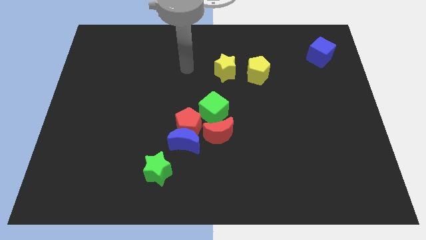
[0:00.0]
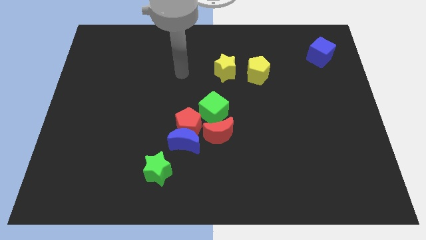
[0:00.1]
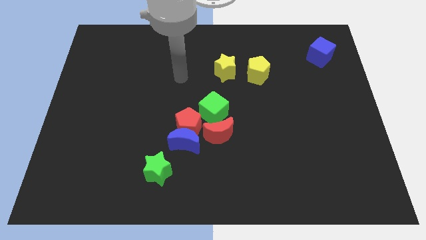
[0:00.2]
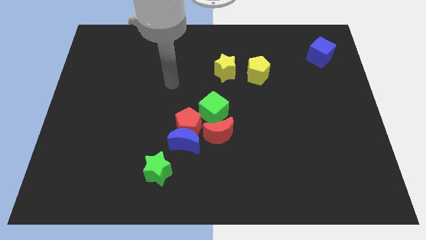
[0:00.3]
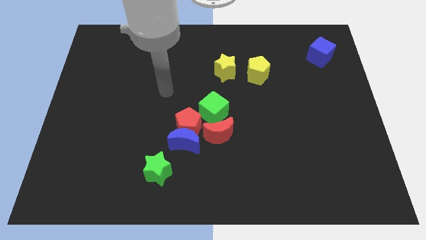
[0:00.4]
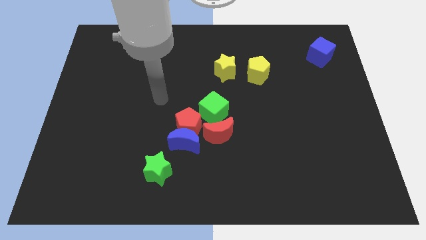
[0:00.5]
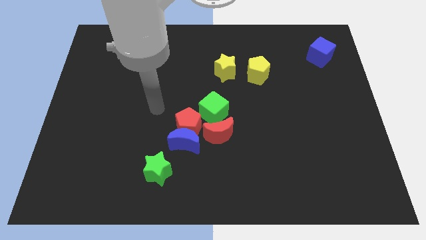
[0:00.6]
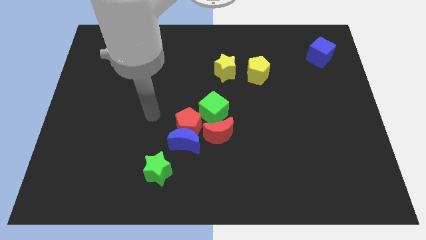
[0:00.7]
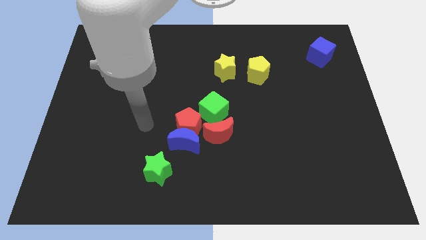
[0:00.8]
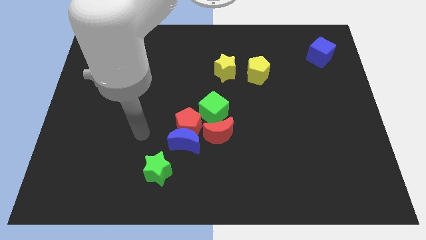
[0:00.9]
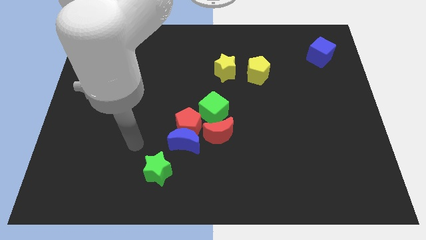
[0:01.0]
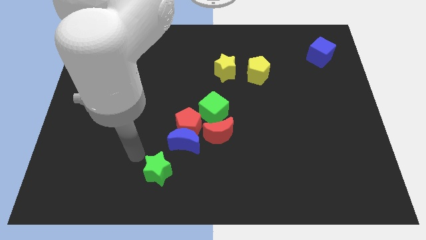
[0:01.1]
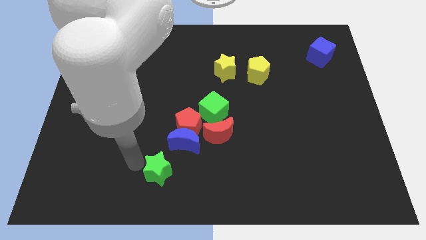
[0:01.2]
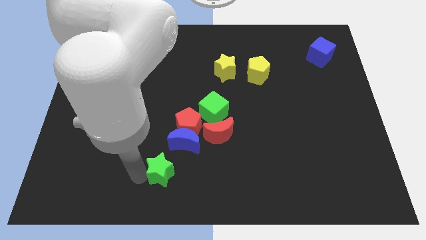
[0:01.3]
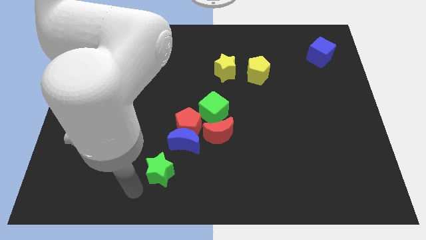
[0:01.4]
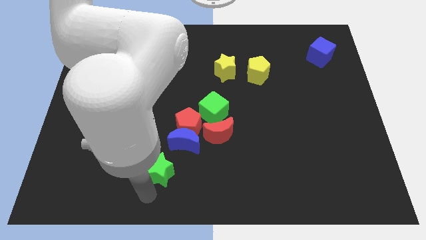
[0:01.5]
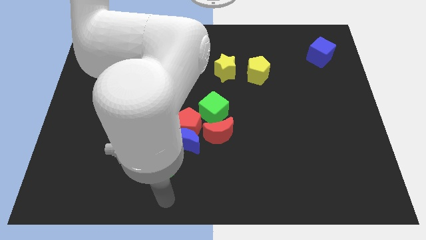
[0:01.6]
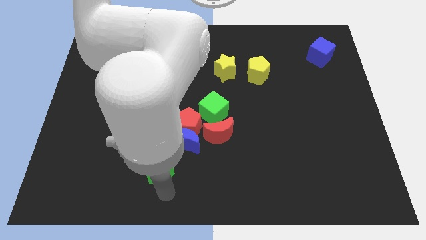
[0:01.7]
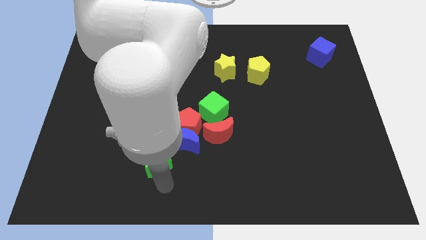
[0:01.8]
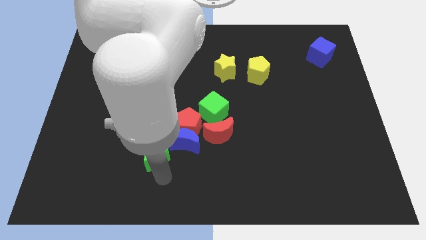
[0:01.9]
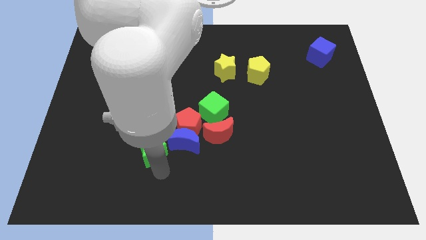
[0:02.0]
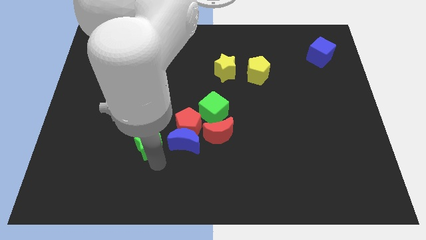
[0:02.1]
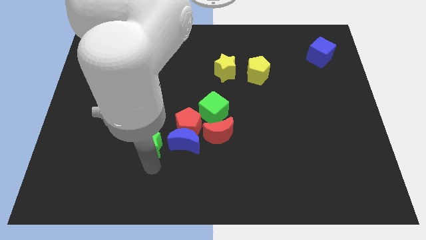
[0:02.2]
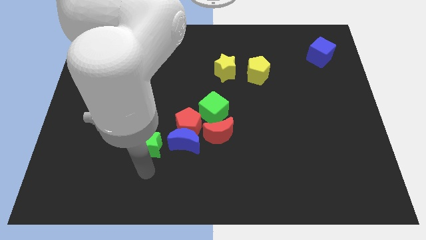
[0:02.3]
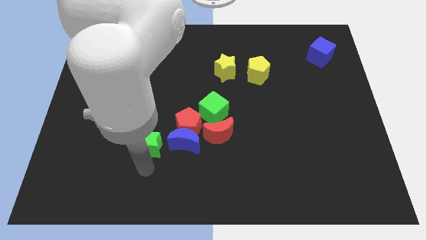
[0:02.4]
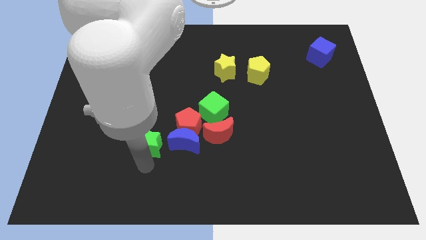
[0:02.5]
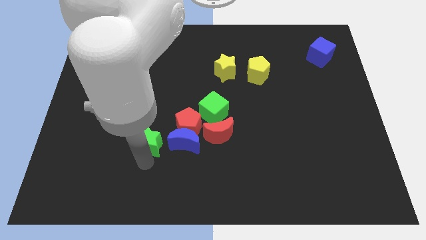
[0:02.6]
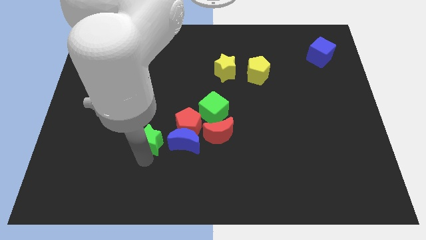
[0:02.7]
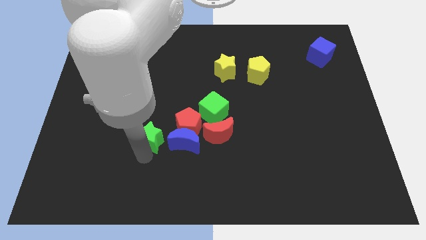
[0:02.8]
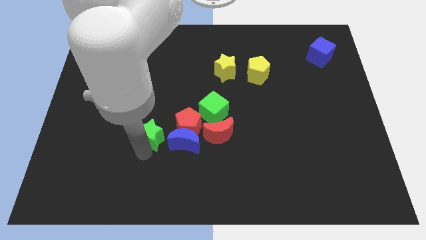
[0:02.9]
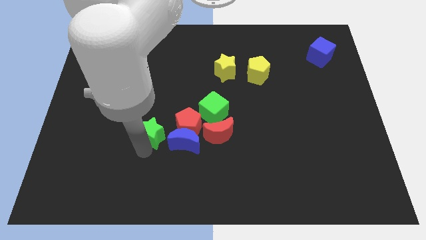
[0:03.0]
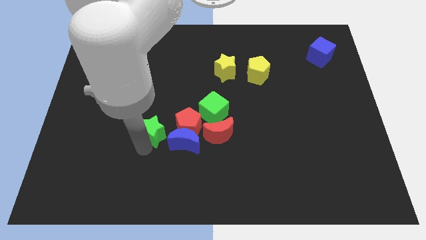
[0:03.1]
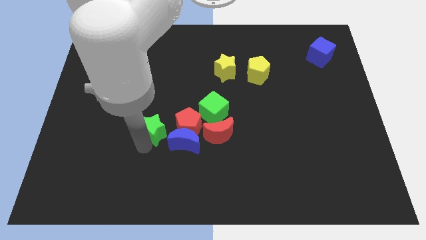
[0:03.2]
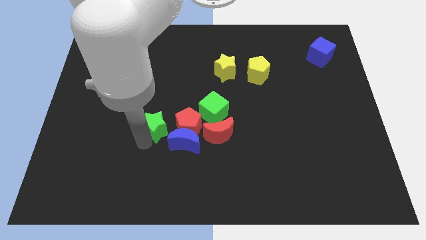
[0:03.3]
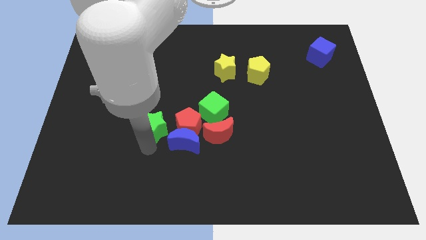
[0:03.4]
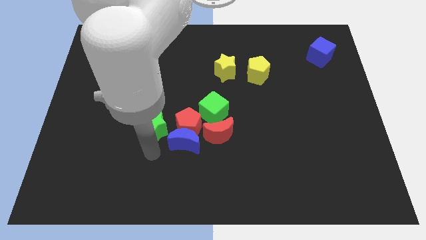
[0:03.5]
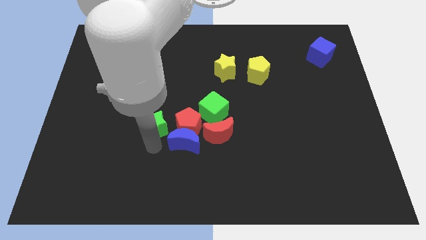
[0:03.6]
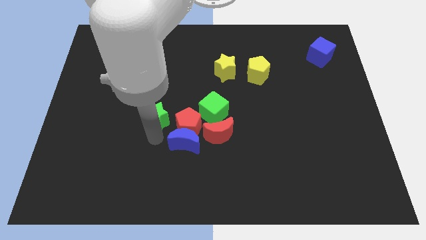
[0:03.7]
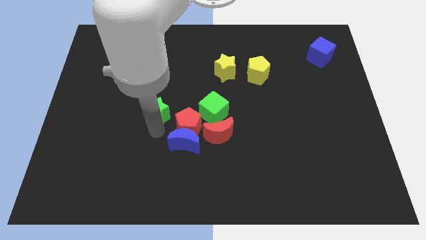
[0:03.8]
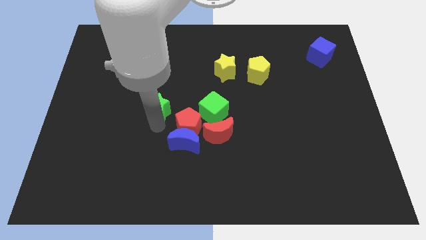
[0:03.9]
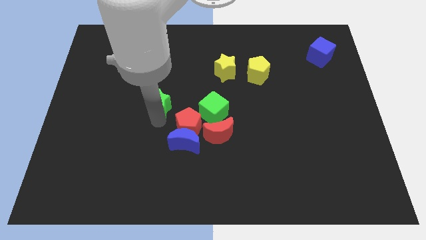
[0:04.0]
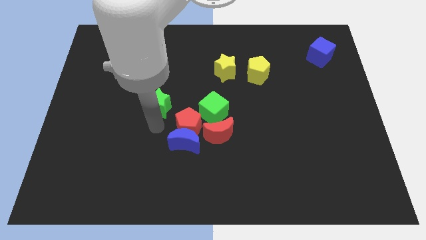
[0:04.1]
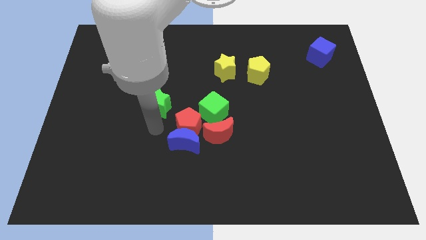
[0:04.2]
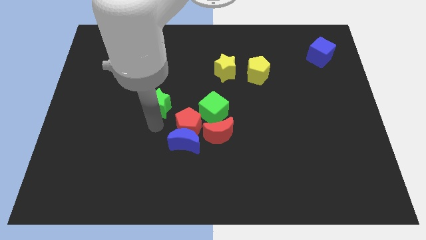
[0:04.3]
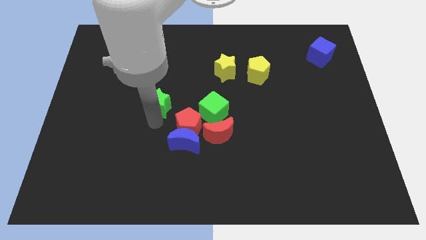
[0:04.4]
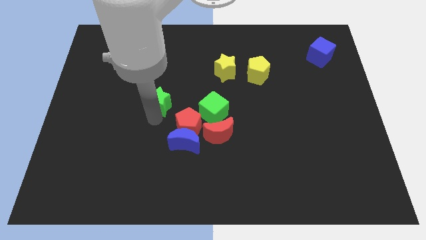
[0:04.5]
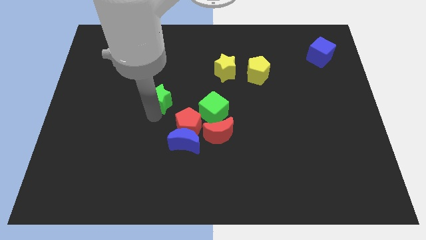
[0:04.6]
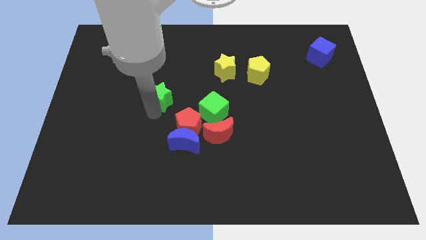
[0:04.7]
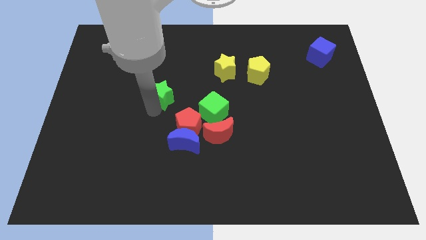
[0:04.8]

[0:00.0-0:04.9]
move the green star up

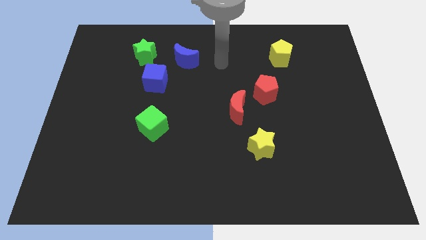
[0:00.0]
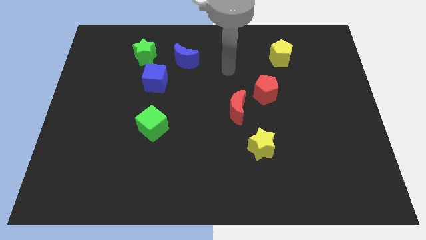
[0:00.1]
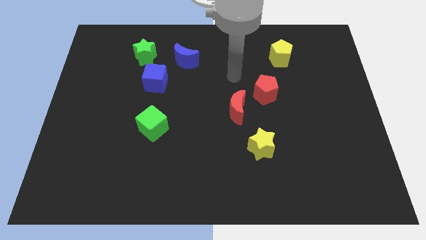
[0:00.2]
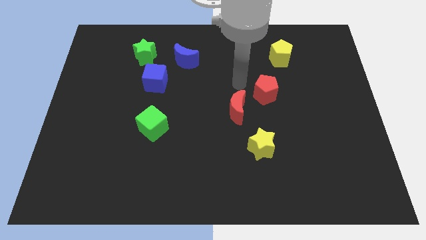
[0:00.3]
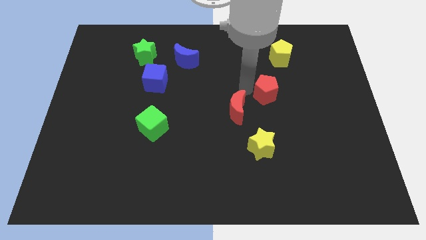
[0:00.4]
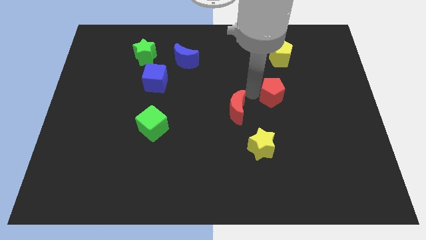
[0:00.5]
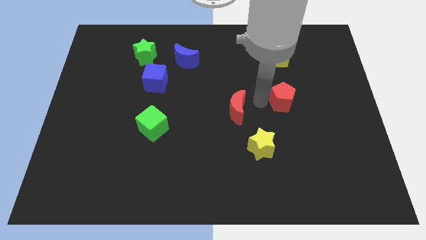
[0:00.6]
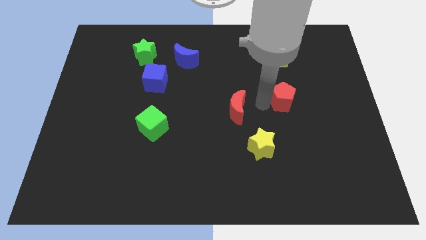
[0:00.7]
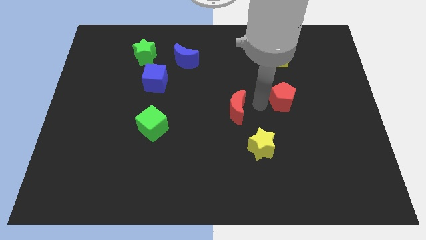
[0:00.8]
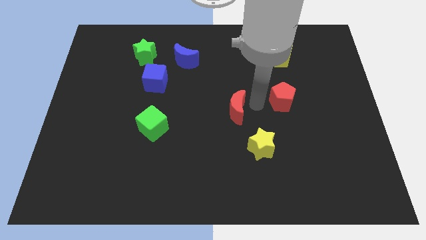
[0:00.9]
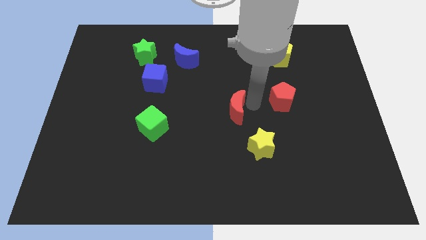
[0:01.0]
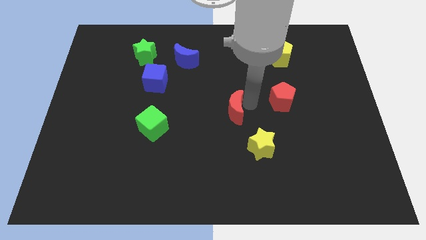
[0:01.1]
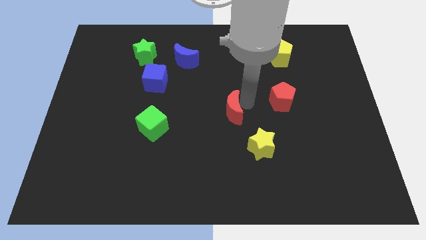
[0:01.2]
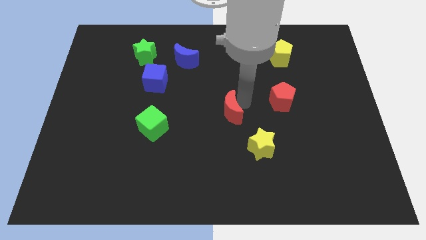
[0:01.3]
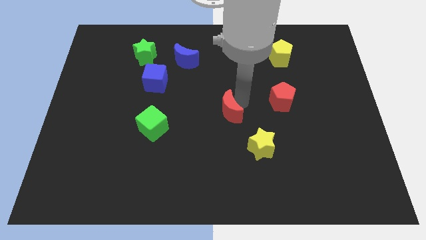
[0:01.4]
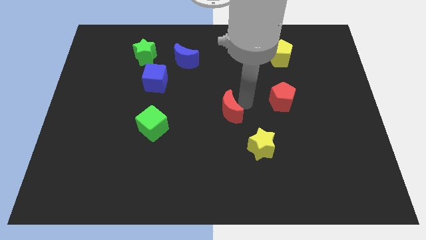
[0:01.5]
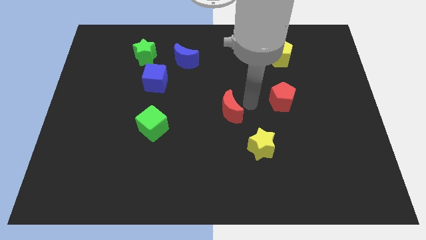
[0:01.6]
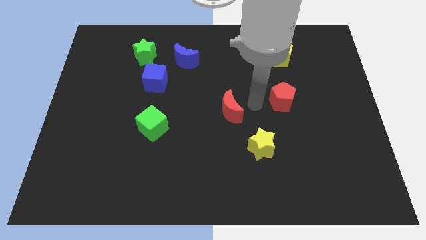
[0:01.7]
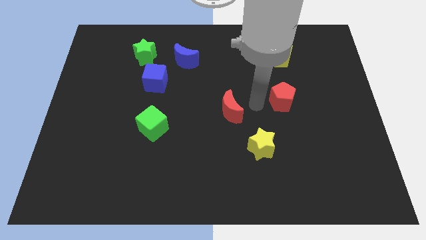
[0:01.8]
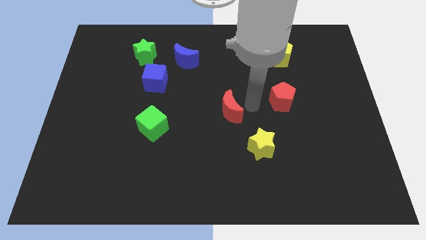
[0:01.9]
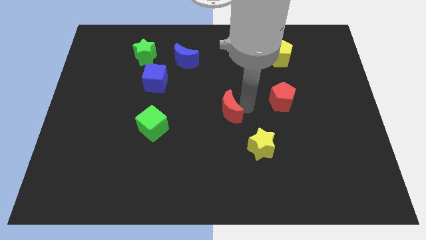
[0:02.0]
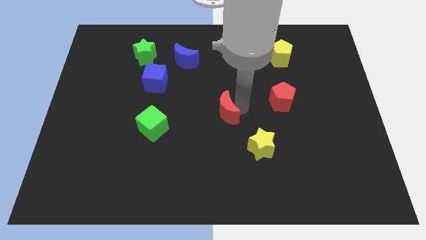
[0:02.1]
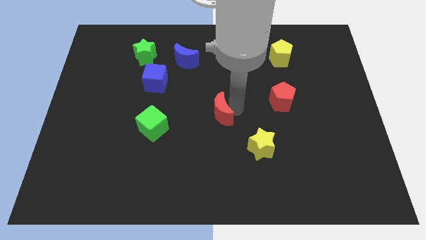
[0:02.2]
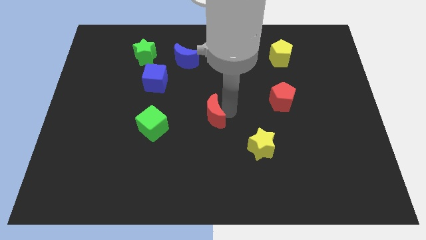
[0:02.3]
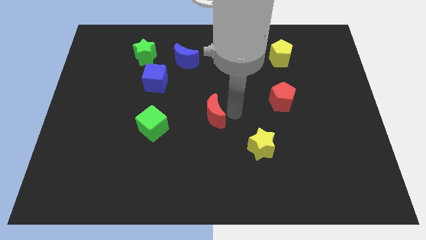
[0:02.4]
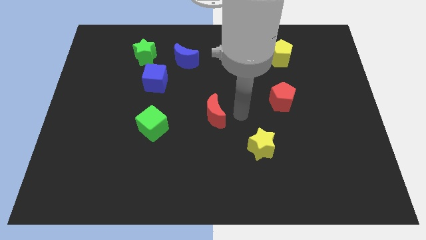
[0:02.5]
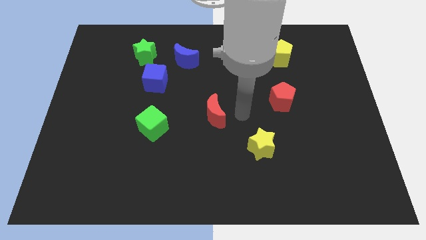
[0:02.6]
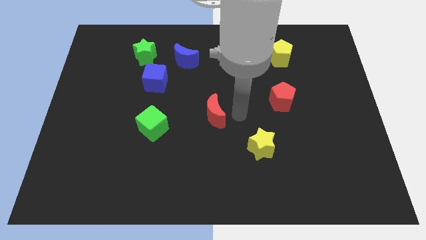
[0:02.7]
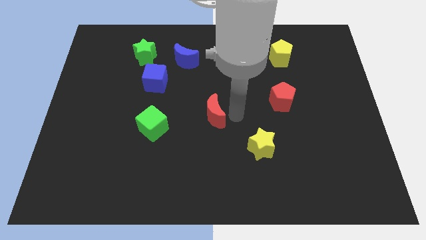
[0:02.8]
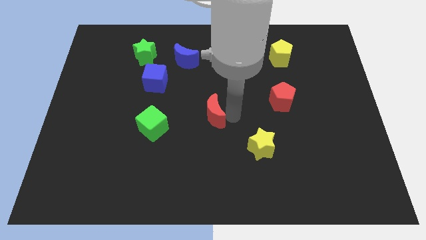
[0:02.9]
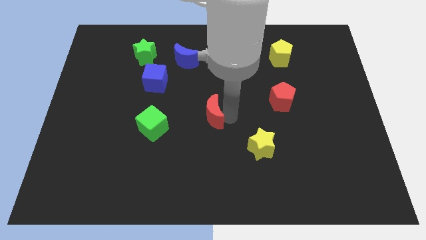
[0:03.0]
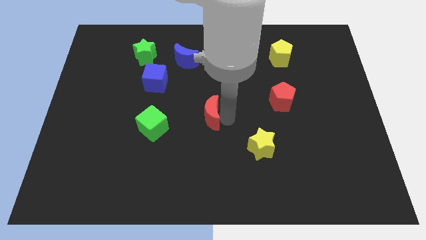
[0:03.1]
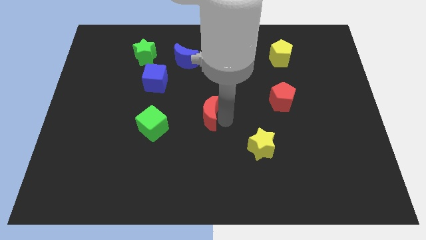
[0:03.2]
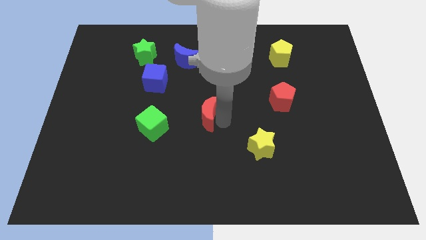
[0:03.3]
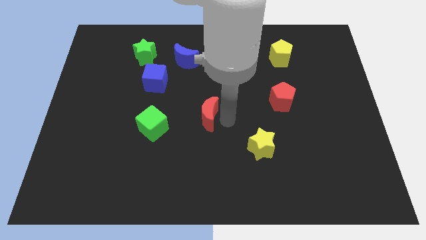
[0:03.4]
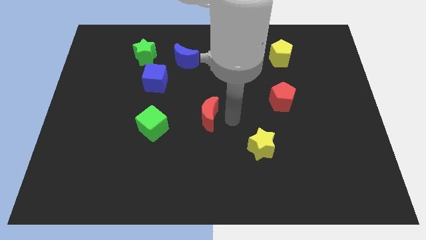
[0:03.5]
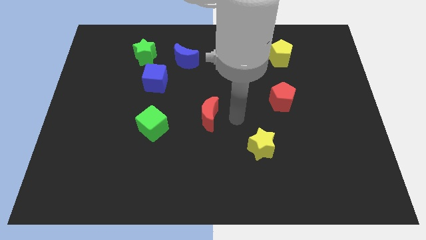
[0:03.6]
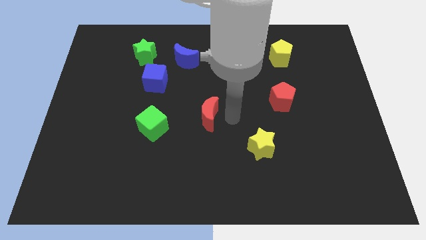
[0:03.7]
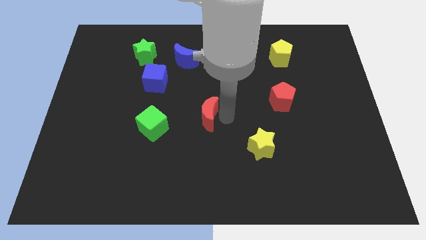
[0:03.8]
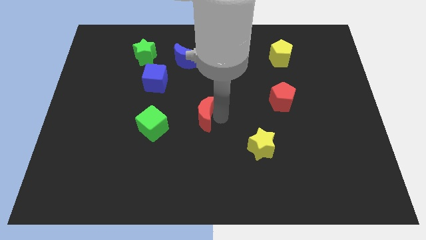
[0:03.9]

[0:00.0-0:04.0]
slightly push the red moon to the left
